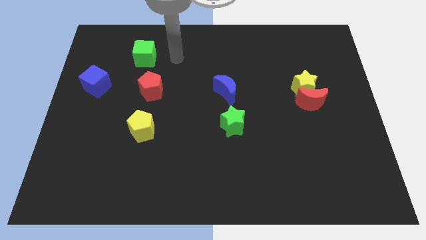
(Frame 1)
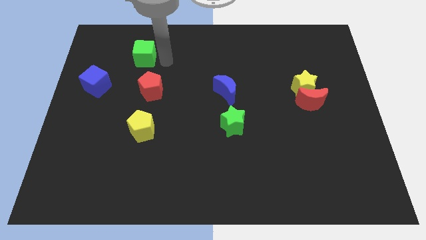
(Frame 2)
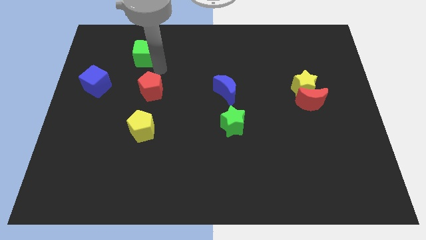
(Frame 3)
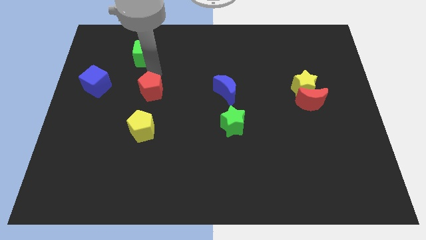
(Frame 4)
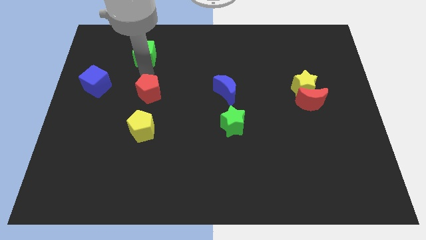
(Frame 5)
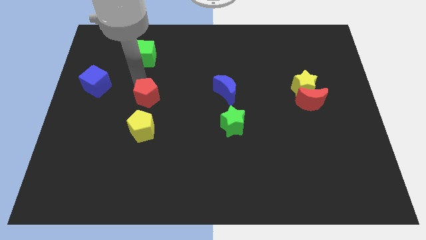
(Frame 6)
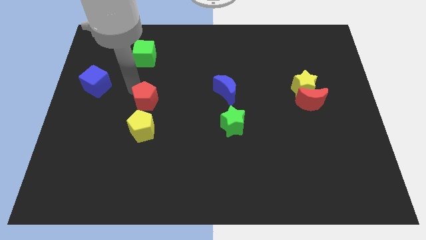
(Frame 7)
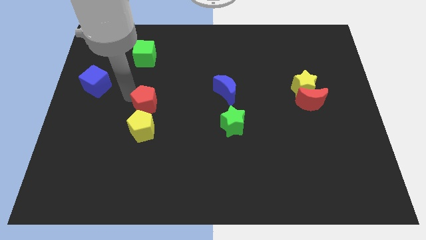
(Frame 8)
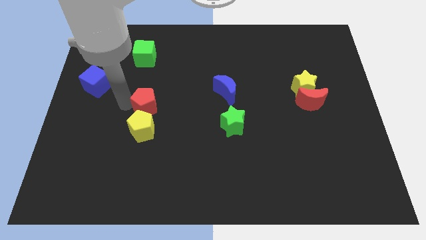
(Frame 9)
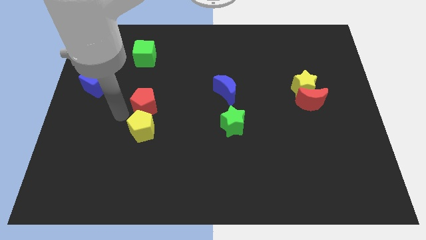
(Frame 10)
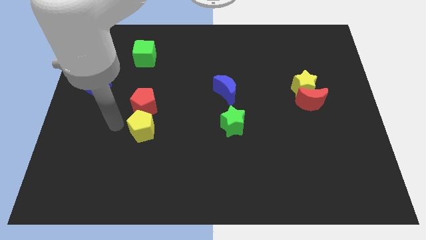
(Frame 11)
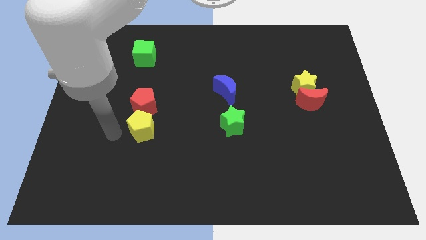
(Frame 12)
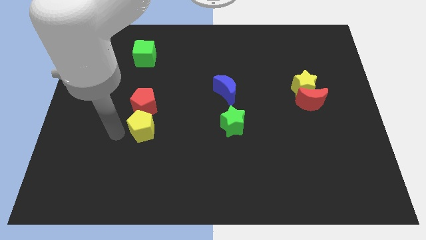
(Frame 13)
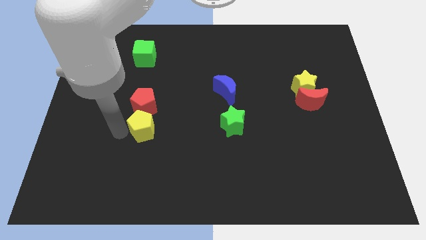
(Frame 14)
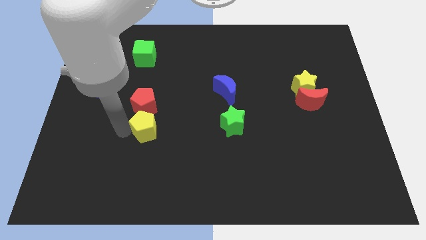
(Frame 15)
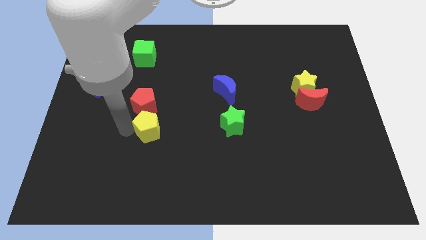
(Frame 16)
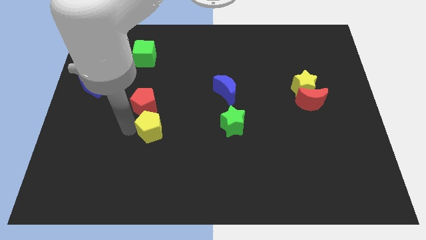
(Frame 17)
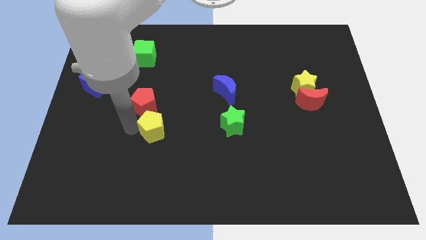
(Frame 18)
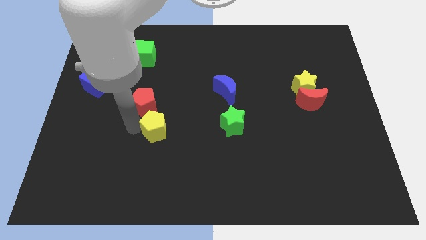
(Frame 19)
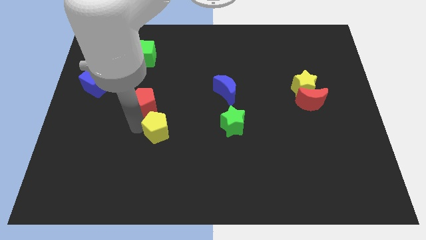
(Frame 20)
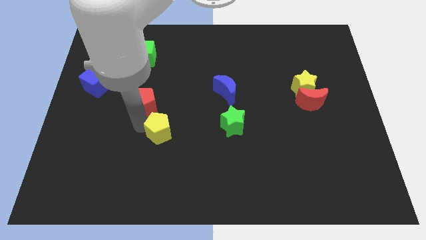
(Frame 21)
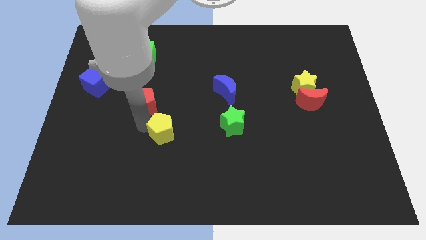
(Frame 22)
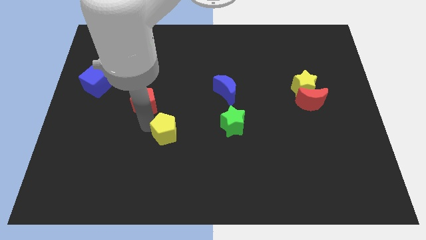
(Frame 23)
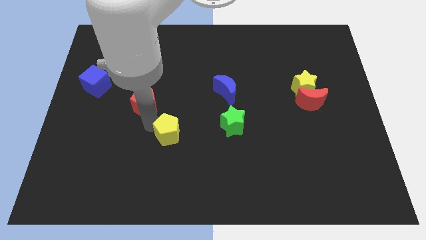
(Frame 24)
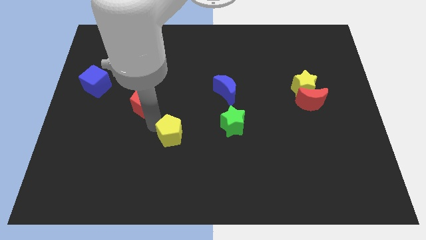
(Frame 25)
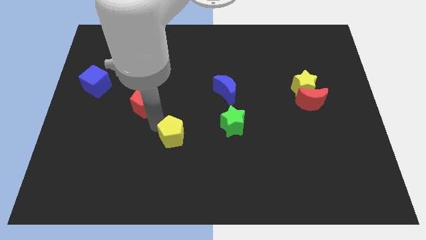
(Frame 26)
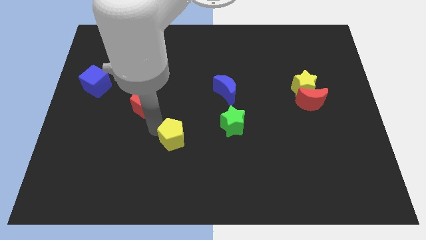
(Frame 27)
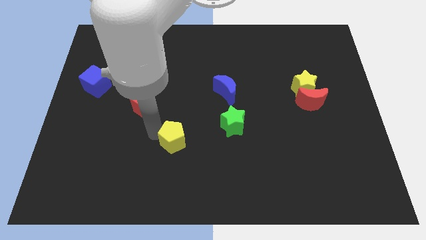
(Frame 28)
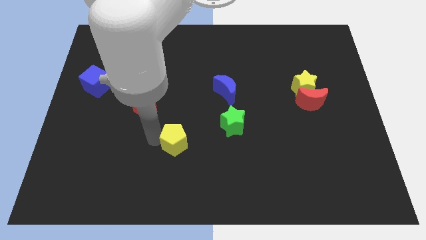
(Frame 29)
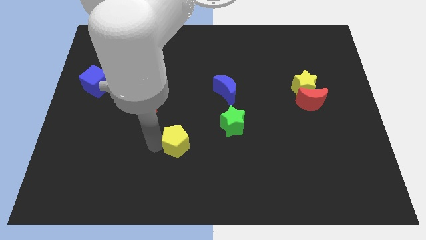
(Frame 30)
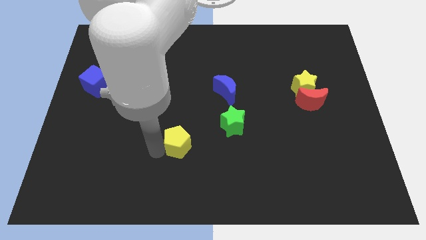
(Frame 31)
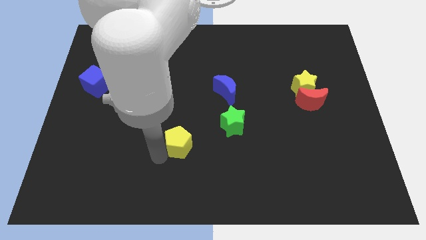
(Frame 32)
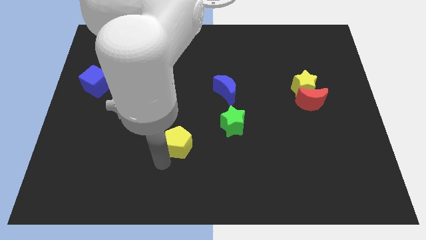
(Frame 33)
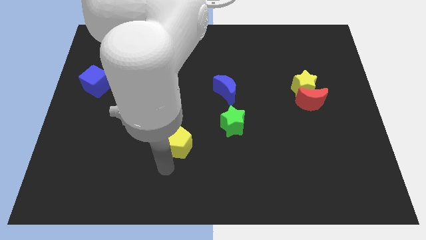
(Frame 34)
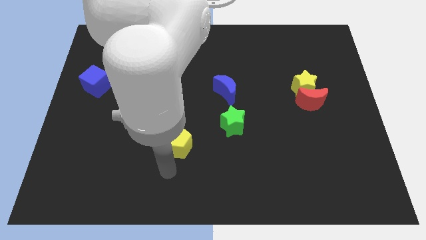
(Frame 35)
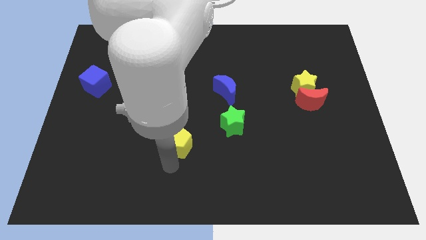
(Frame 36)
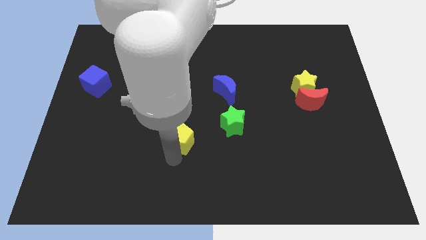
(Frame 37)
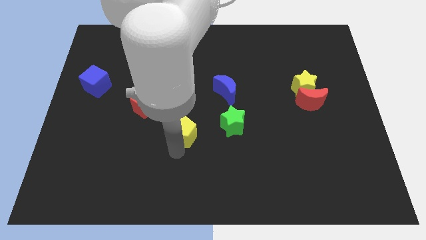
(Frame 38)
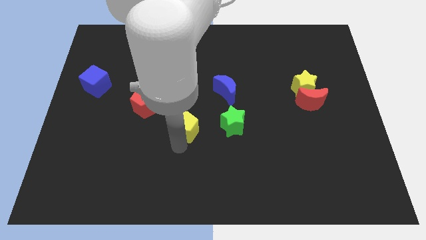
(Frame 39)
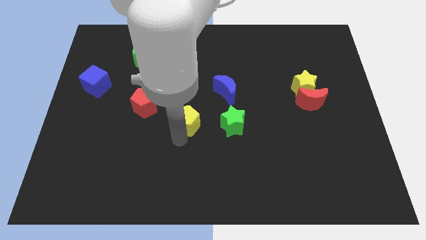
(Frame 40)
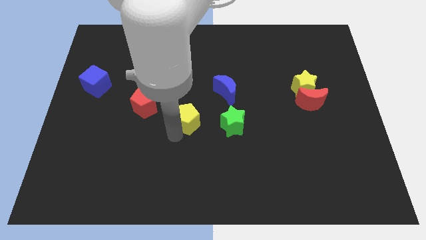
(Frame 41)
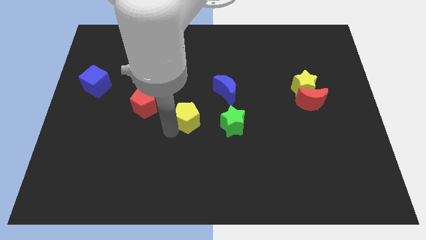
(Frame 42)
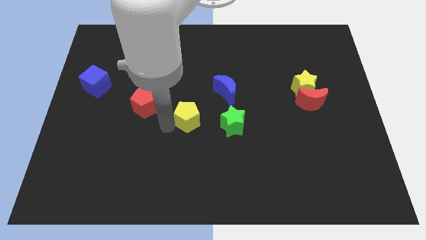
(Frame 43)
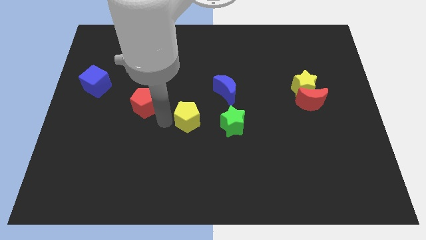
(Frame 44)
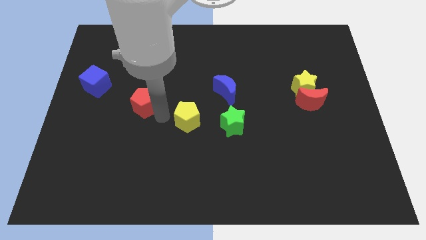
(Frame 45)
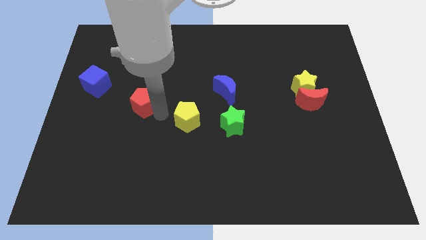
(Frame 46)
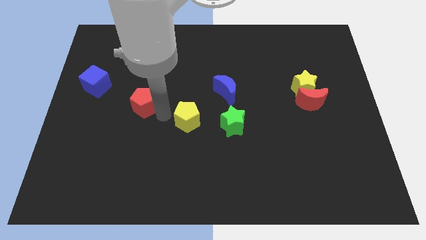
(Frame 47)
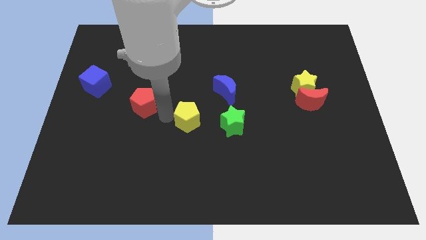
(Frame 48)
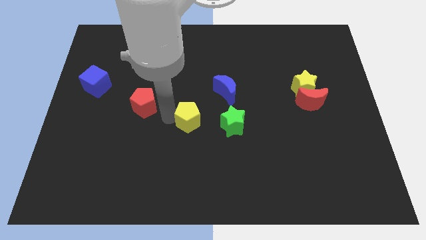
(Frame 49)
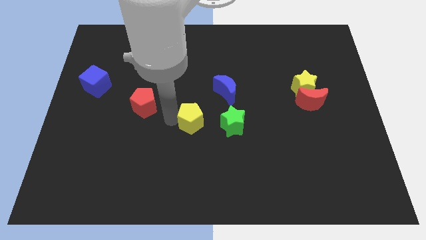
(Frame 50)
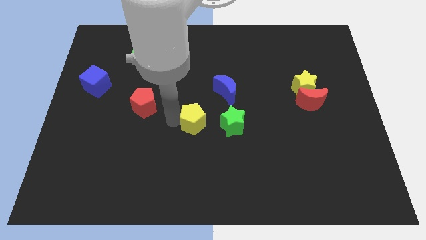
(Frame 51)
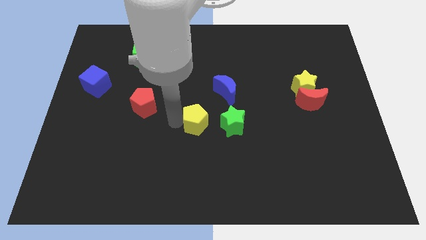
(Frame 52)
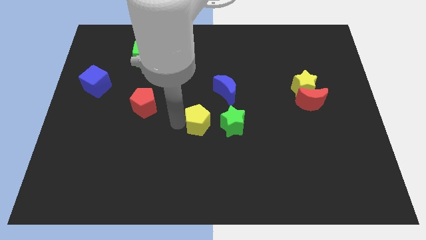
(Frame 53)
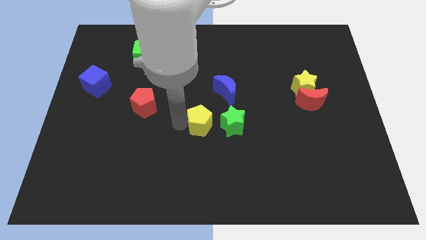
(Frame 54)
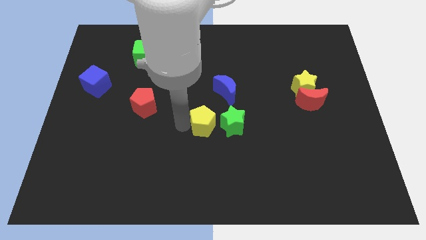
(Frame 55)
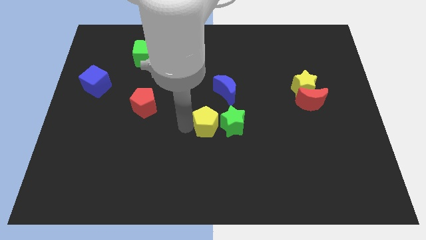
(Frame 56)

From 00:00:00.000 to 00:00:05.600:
push the yellow pentagon next to the green star

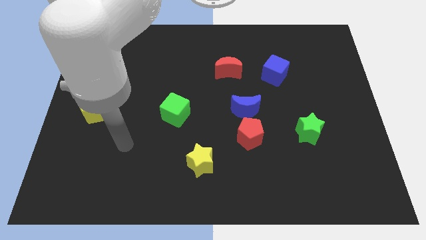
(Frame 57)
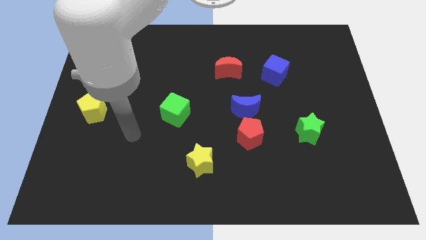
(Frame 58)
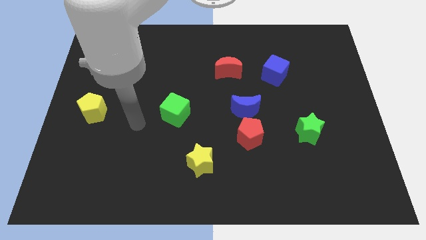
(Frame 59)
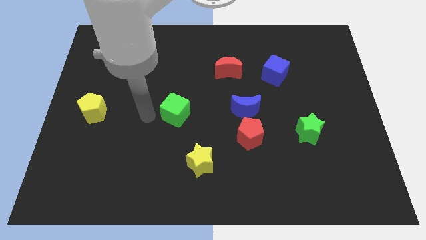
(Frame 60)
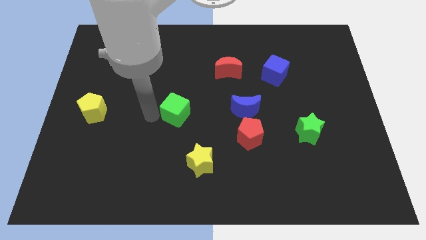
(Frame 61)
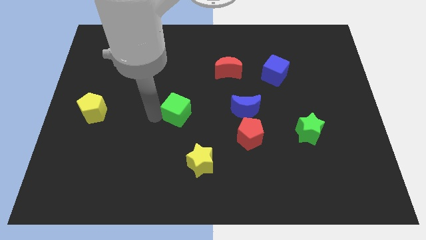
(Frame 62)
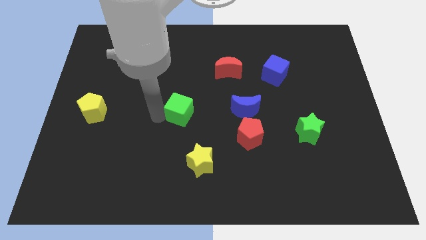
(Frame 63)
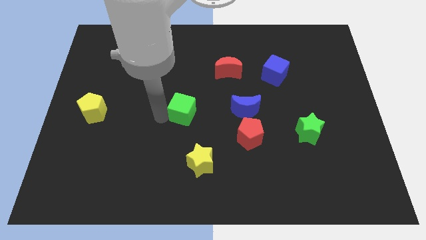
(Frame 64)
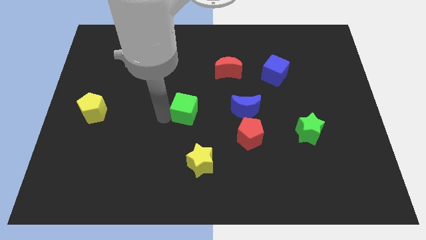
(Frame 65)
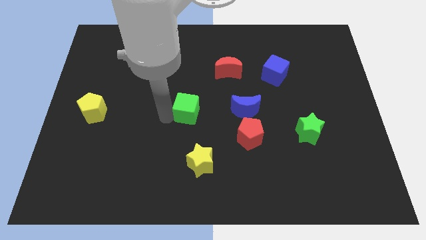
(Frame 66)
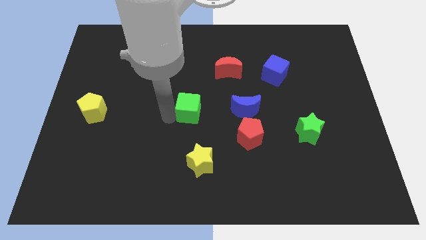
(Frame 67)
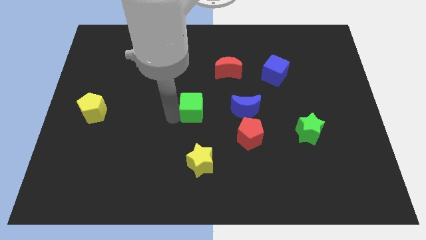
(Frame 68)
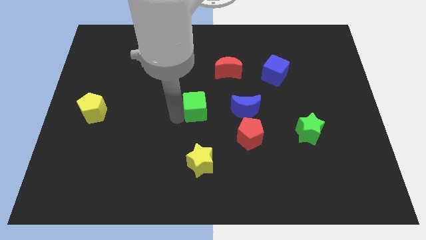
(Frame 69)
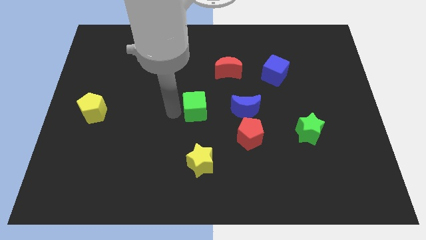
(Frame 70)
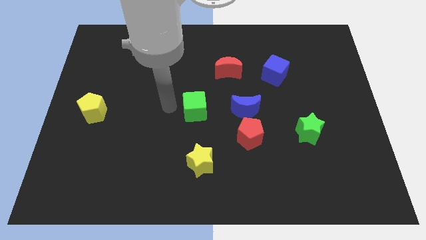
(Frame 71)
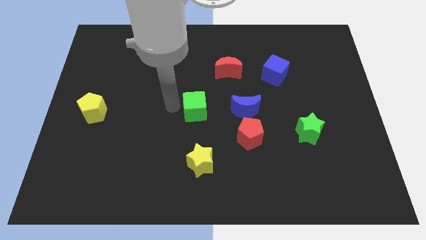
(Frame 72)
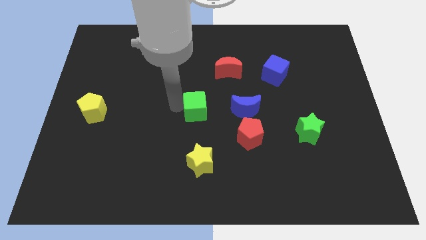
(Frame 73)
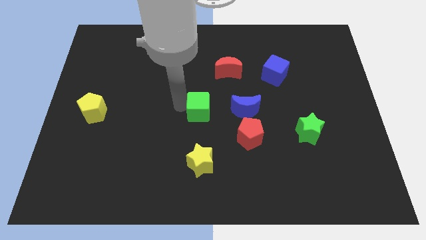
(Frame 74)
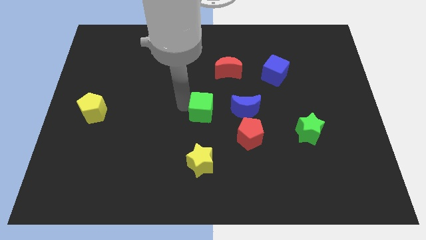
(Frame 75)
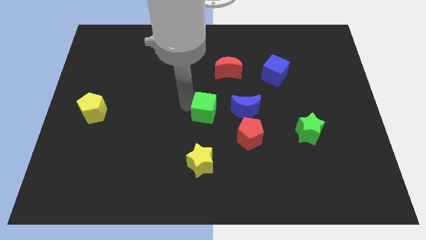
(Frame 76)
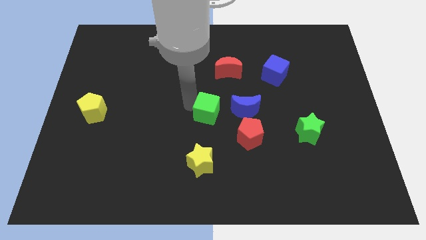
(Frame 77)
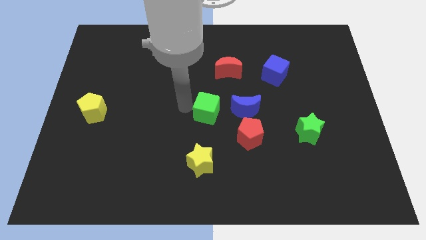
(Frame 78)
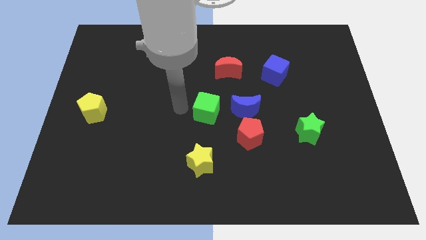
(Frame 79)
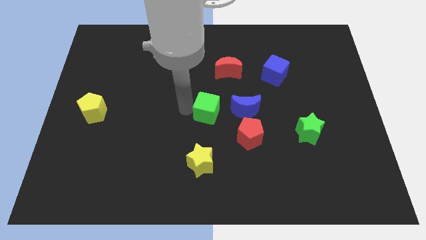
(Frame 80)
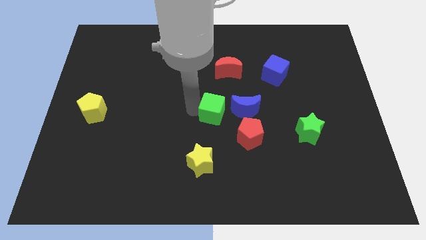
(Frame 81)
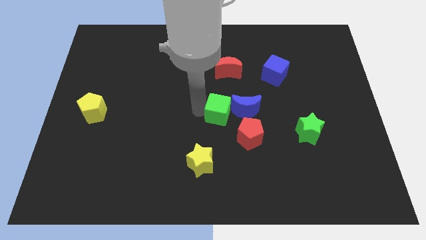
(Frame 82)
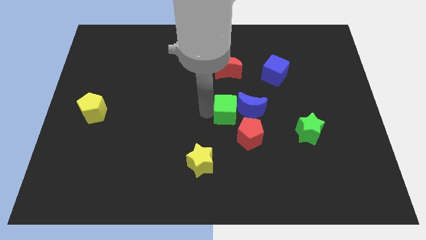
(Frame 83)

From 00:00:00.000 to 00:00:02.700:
push the green cube to the blue moon
